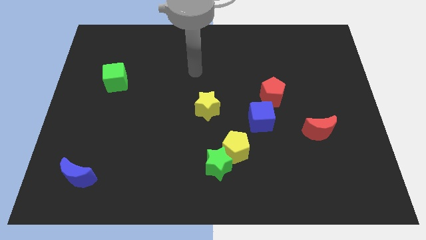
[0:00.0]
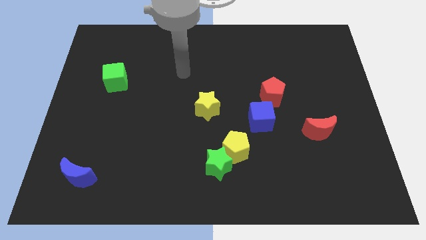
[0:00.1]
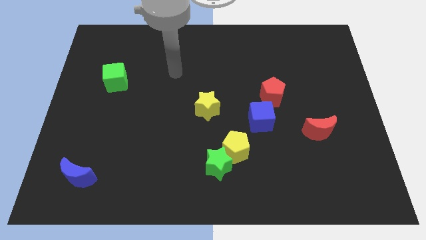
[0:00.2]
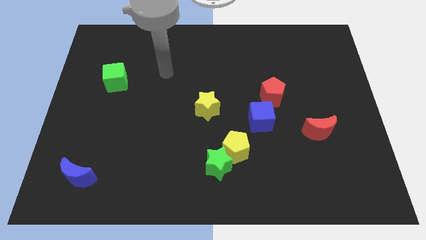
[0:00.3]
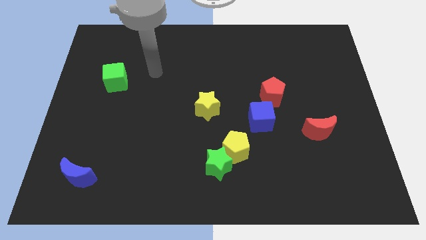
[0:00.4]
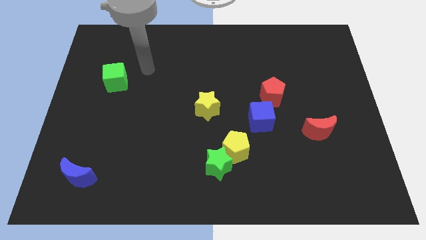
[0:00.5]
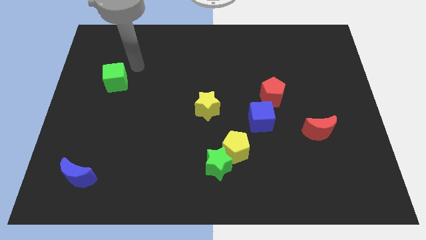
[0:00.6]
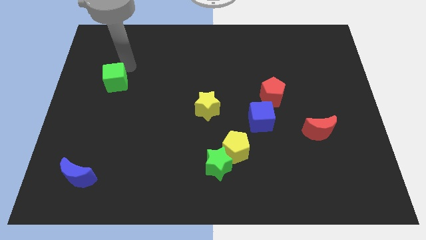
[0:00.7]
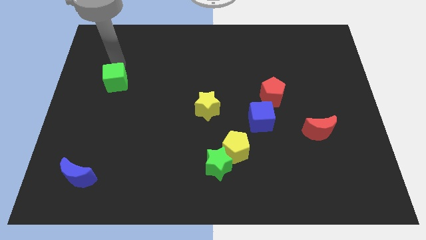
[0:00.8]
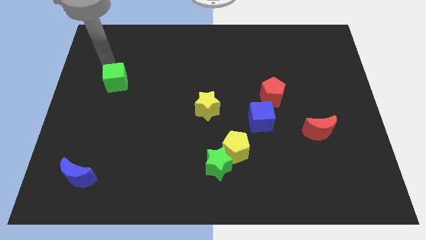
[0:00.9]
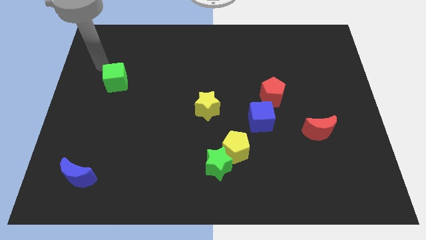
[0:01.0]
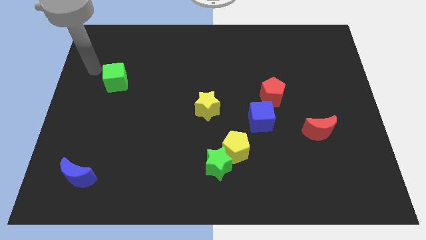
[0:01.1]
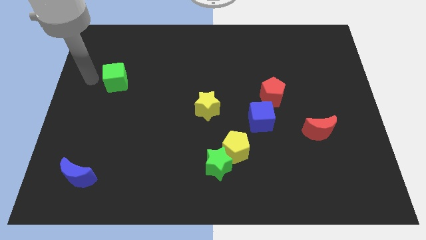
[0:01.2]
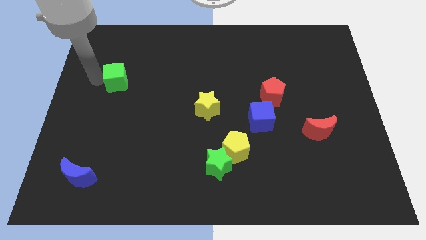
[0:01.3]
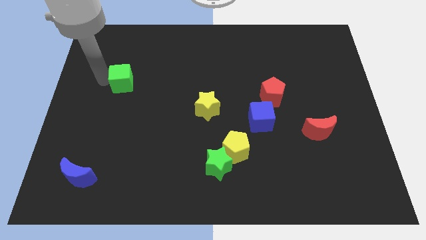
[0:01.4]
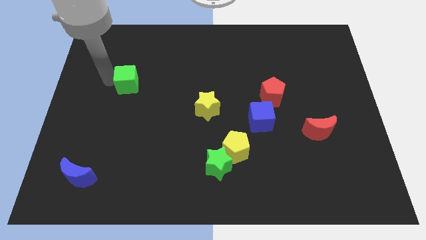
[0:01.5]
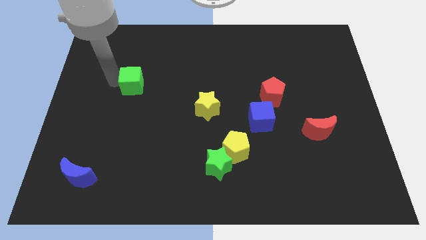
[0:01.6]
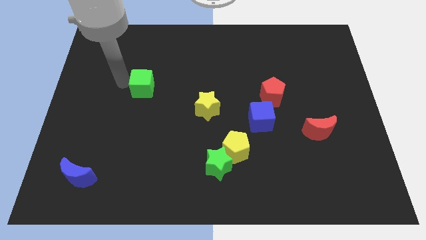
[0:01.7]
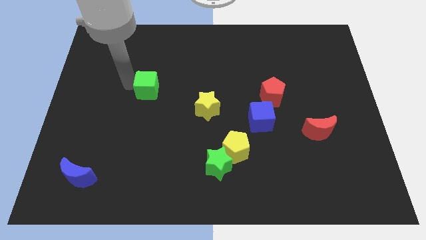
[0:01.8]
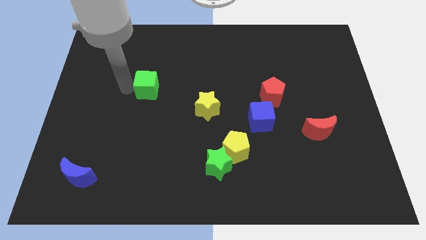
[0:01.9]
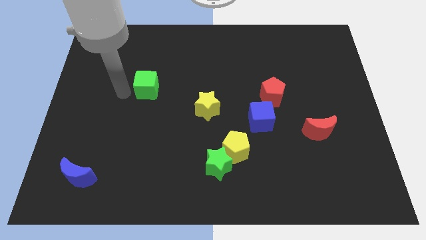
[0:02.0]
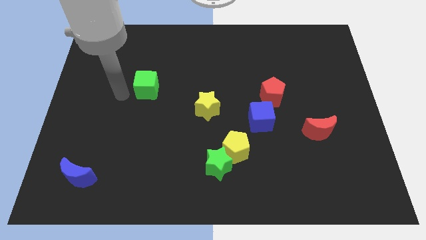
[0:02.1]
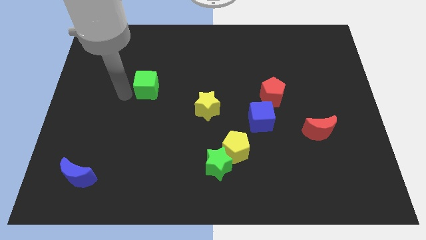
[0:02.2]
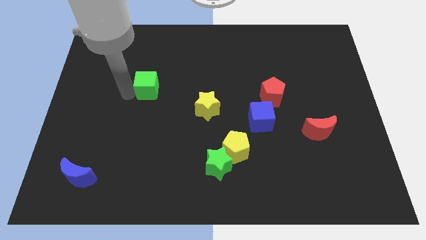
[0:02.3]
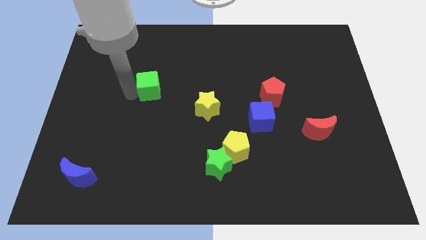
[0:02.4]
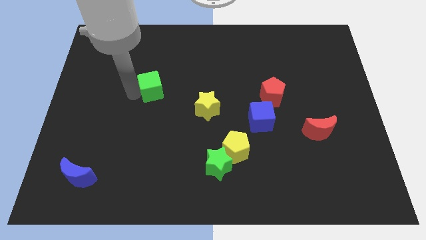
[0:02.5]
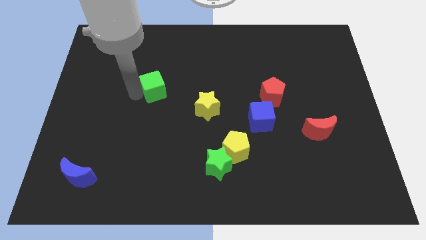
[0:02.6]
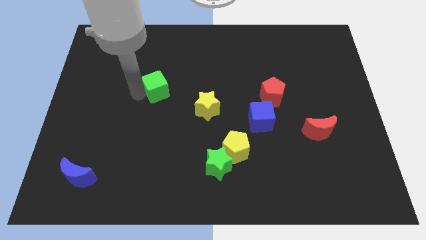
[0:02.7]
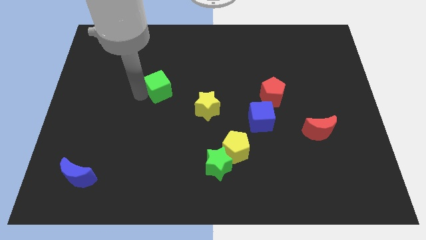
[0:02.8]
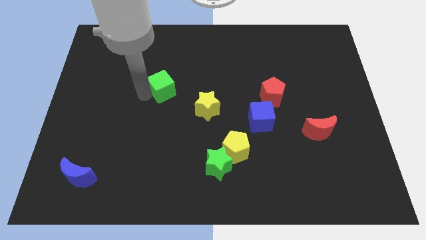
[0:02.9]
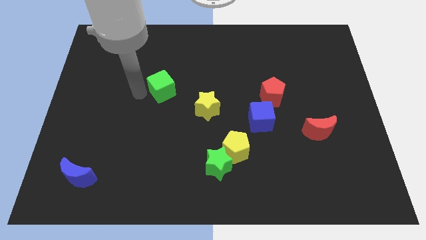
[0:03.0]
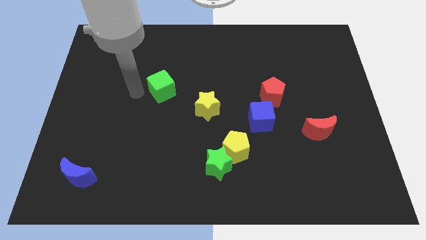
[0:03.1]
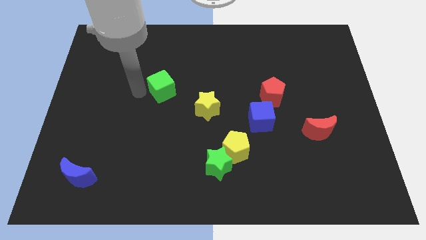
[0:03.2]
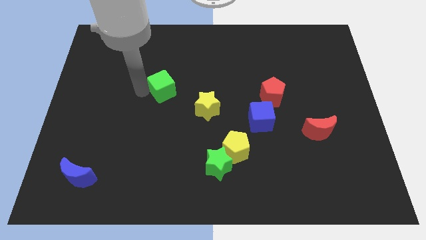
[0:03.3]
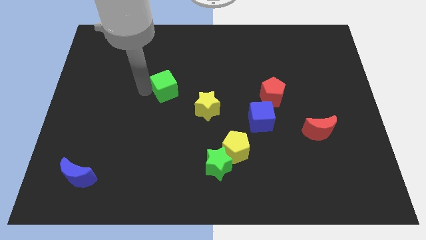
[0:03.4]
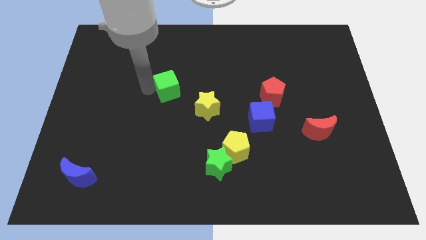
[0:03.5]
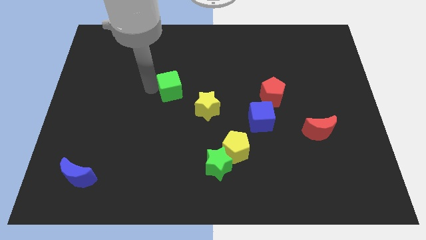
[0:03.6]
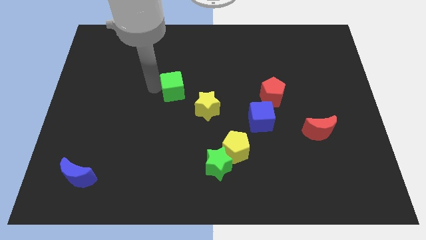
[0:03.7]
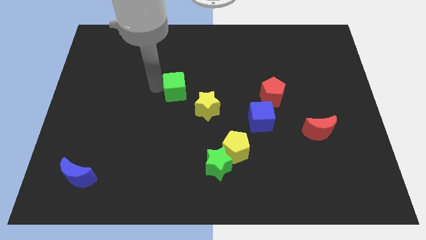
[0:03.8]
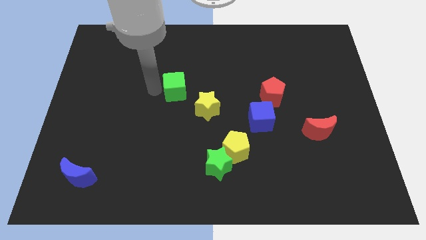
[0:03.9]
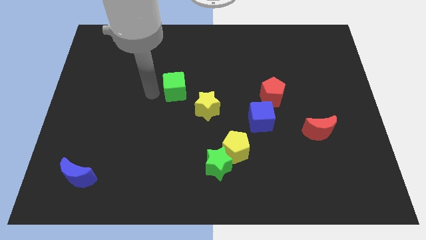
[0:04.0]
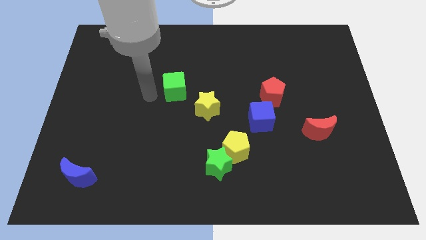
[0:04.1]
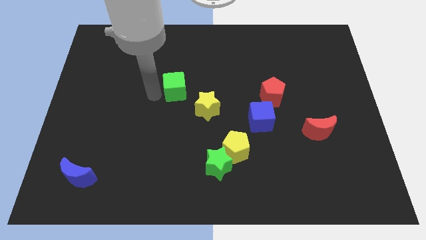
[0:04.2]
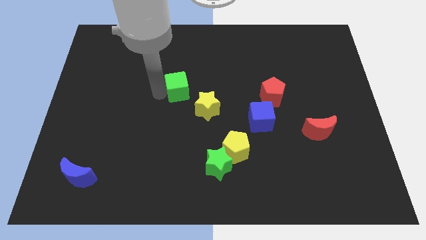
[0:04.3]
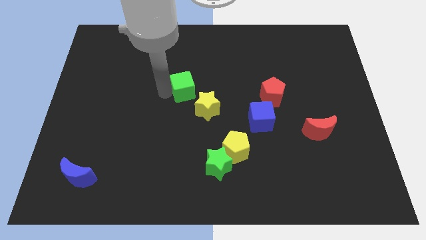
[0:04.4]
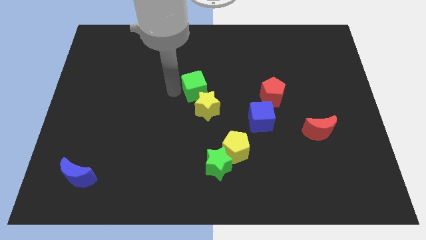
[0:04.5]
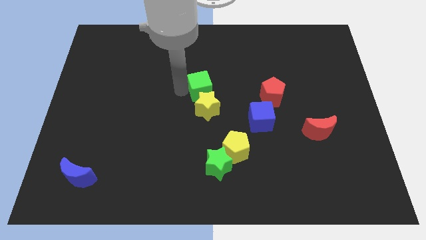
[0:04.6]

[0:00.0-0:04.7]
push the green cube right

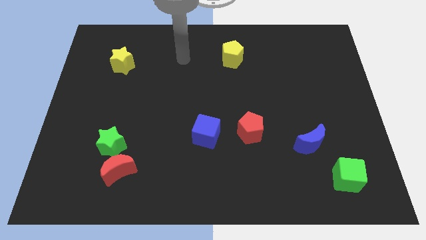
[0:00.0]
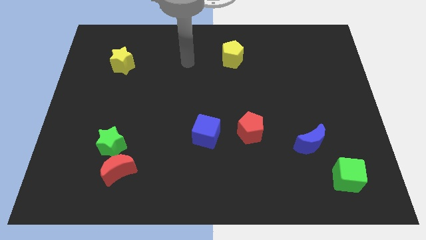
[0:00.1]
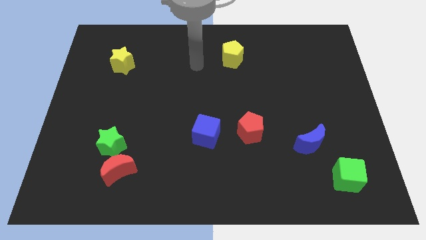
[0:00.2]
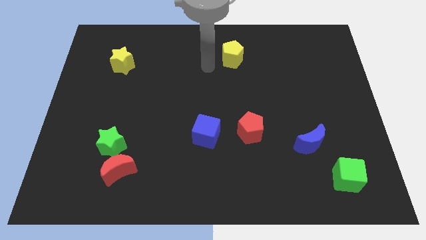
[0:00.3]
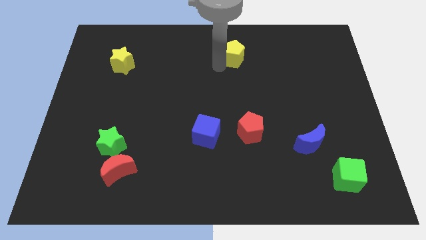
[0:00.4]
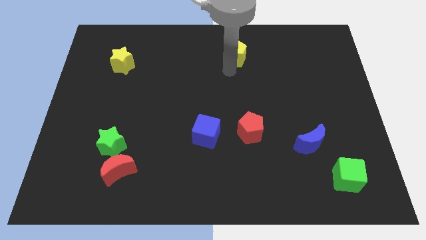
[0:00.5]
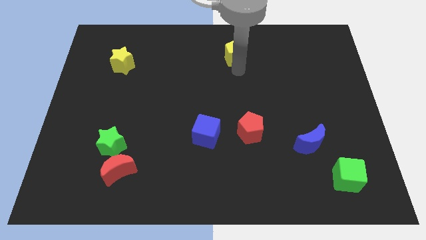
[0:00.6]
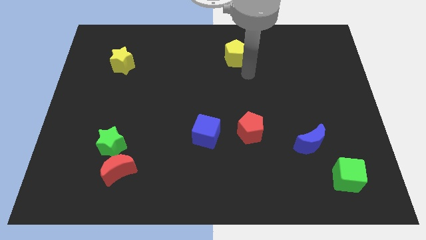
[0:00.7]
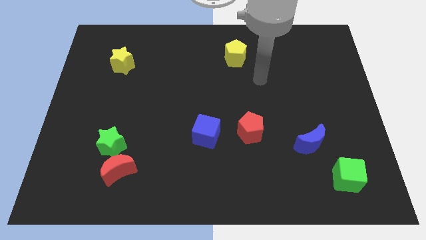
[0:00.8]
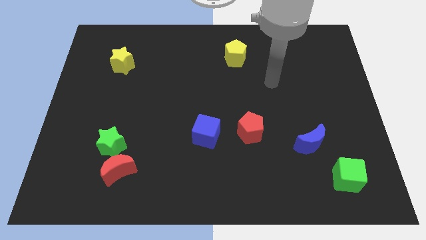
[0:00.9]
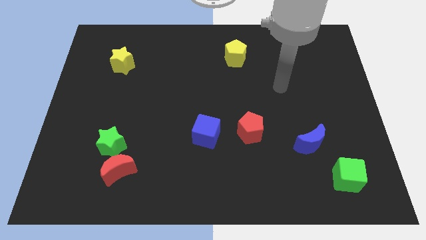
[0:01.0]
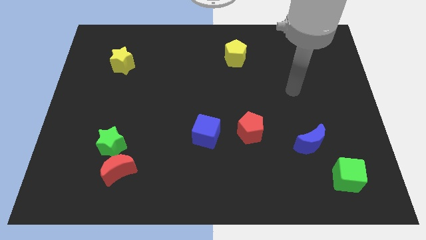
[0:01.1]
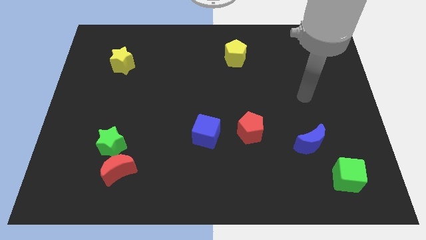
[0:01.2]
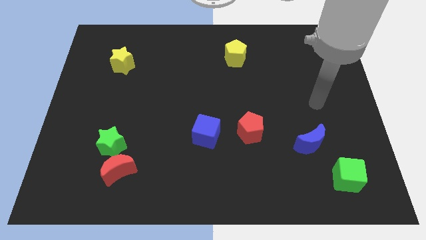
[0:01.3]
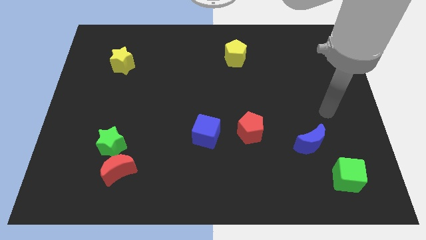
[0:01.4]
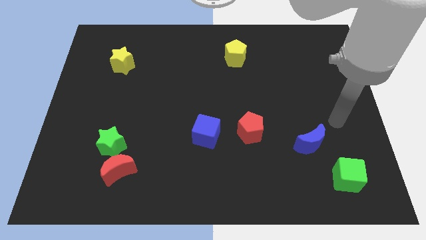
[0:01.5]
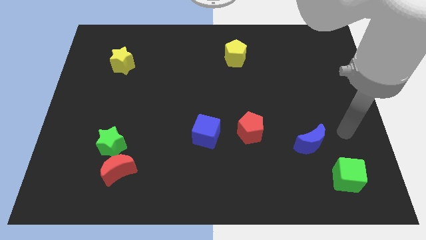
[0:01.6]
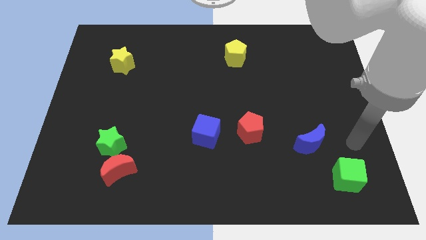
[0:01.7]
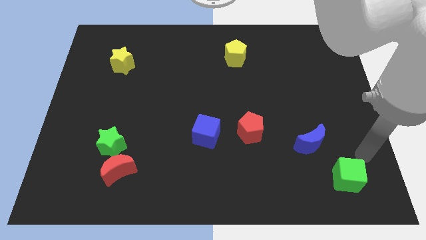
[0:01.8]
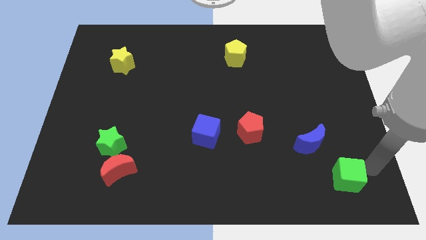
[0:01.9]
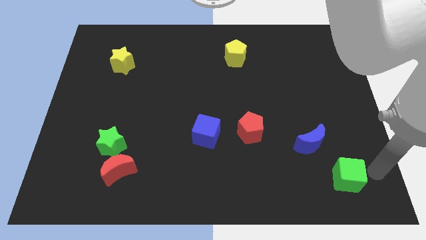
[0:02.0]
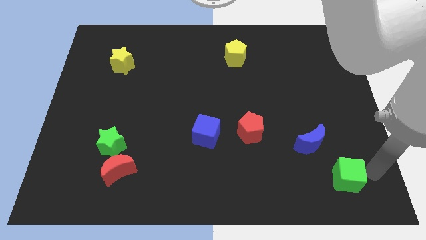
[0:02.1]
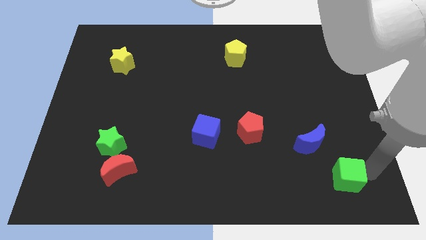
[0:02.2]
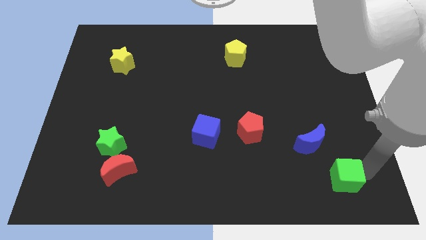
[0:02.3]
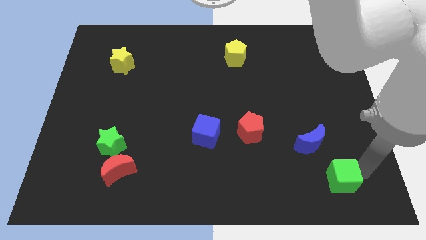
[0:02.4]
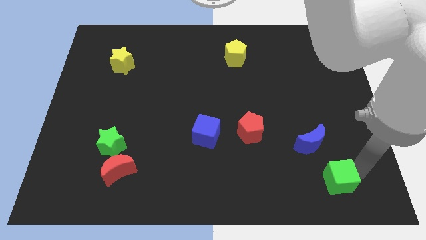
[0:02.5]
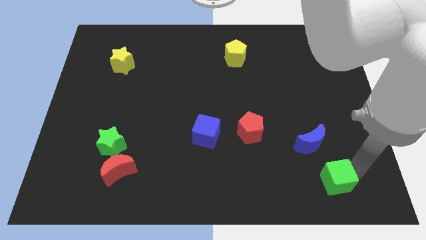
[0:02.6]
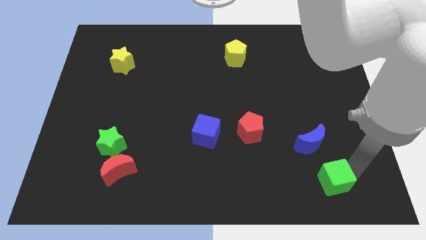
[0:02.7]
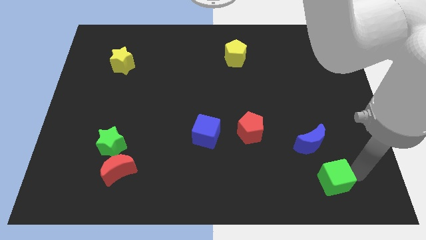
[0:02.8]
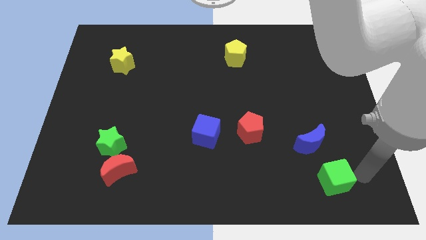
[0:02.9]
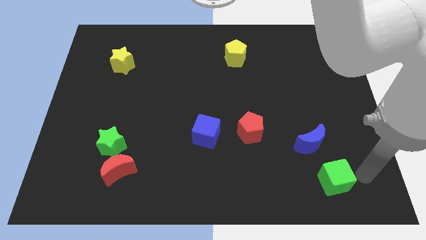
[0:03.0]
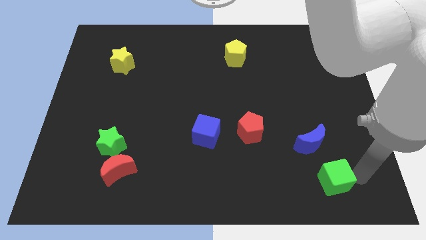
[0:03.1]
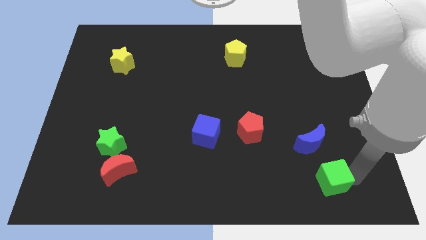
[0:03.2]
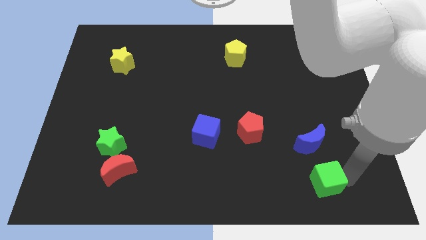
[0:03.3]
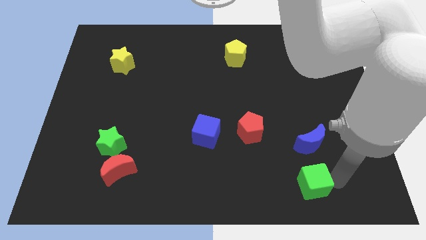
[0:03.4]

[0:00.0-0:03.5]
slightly push the green cube left
